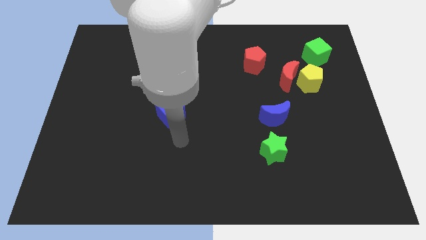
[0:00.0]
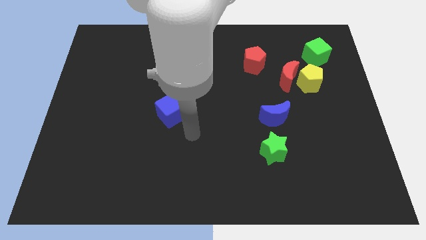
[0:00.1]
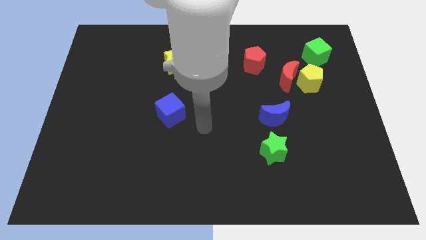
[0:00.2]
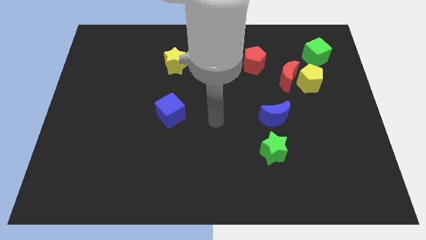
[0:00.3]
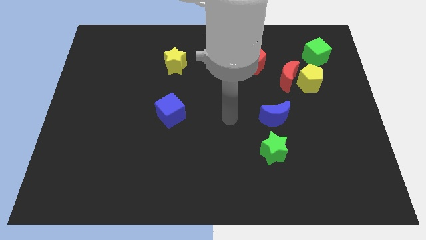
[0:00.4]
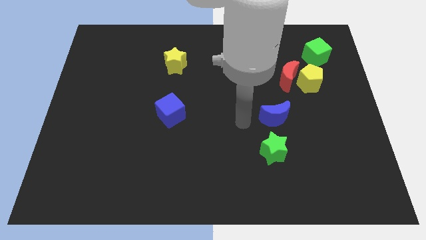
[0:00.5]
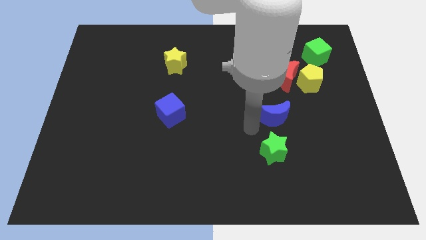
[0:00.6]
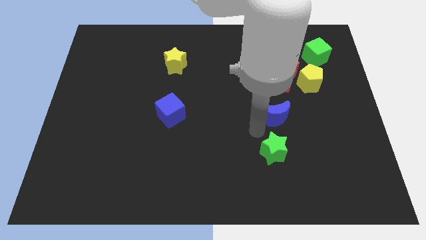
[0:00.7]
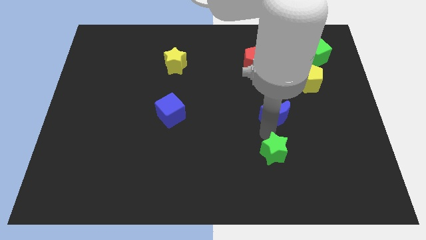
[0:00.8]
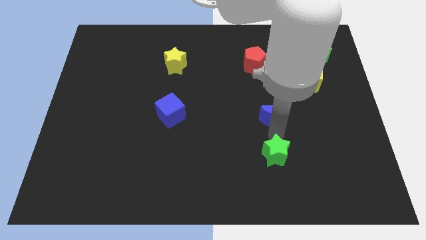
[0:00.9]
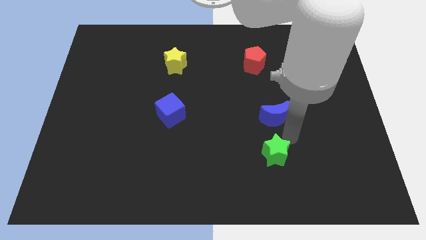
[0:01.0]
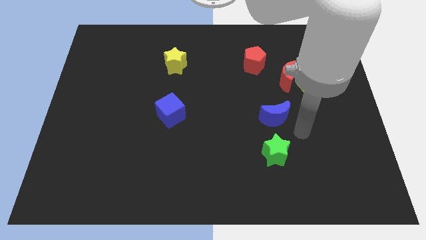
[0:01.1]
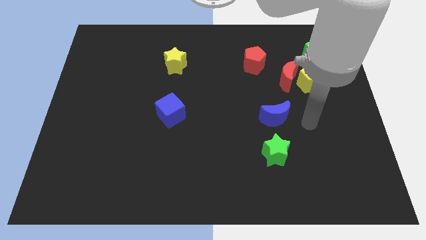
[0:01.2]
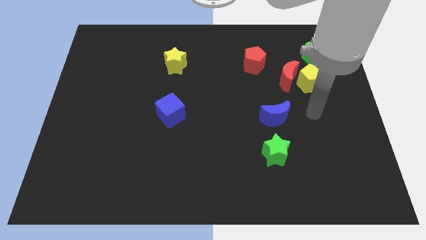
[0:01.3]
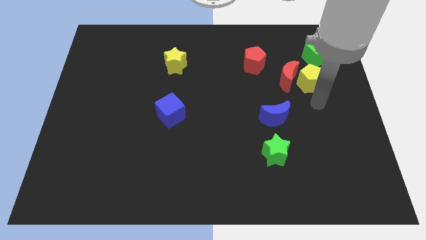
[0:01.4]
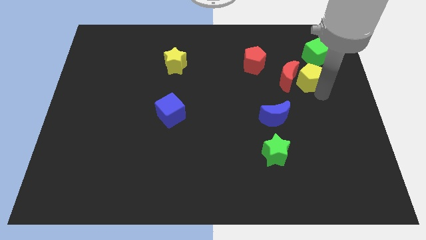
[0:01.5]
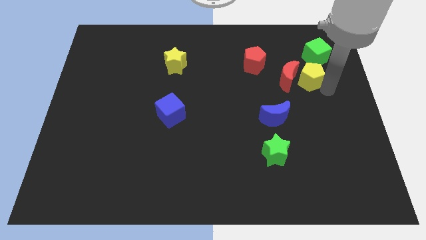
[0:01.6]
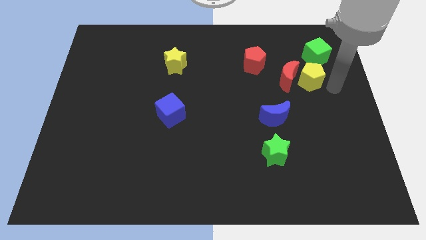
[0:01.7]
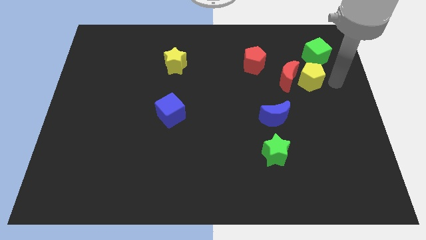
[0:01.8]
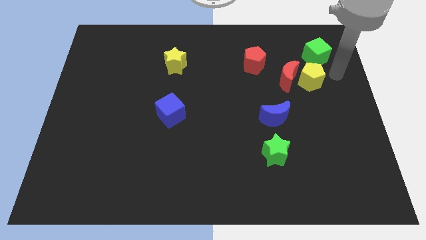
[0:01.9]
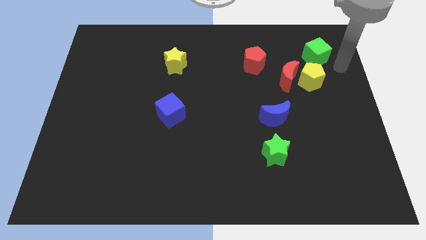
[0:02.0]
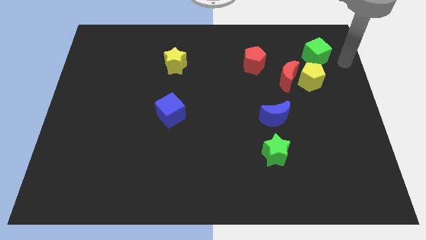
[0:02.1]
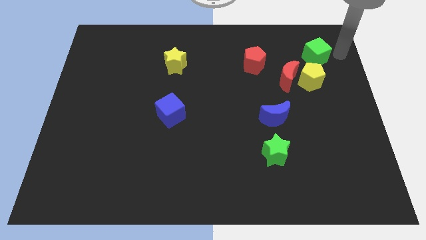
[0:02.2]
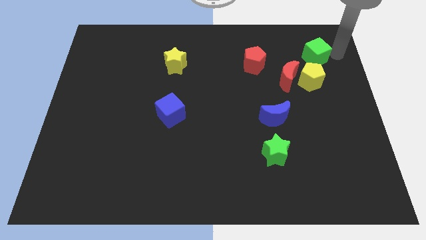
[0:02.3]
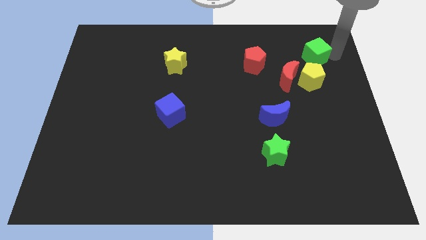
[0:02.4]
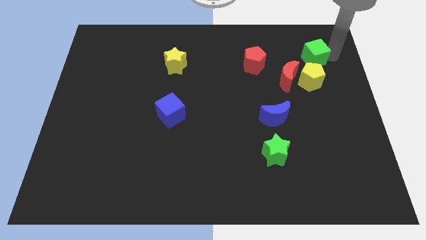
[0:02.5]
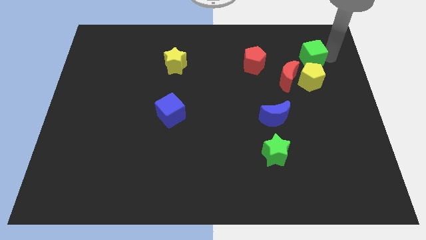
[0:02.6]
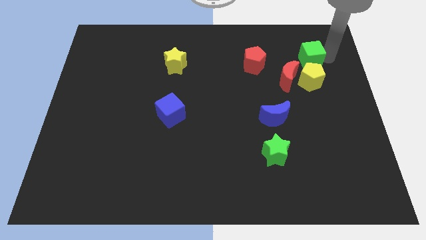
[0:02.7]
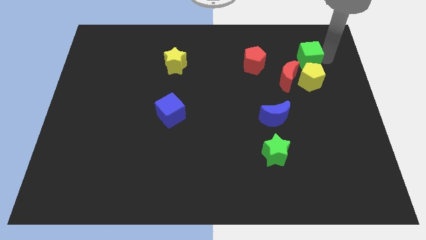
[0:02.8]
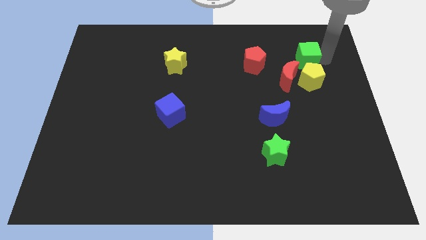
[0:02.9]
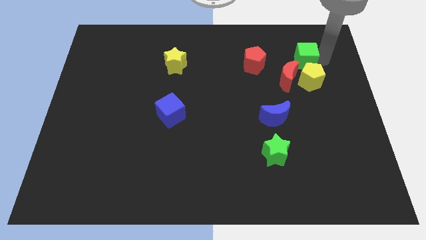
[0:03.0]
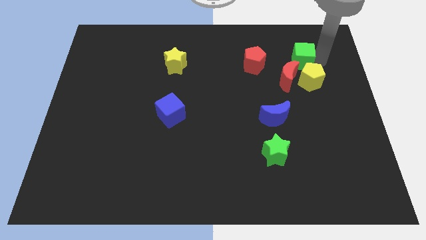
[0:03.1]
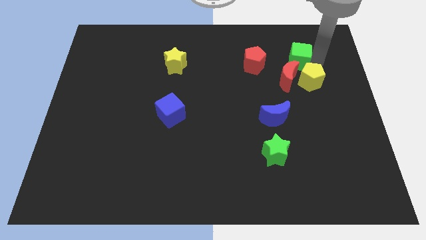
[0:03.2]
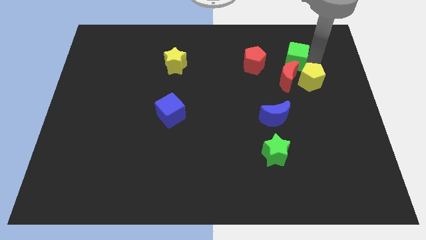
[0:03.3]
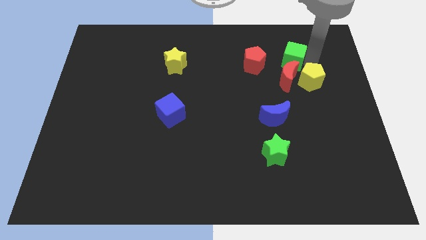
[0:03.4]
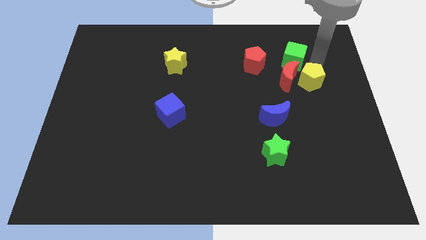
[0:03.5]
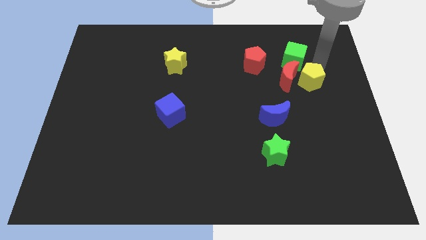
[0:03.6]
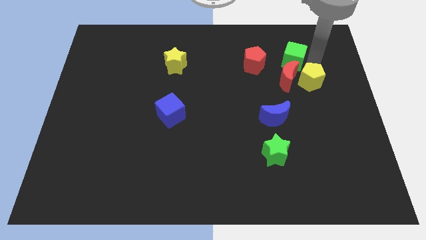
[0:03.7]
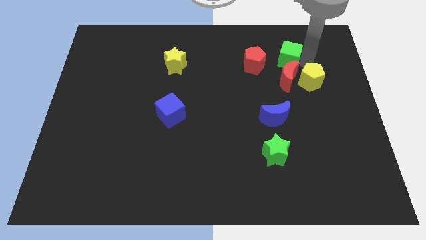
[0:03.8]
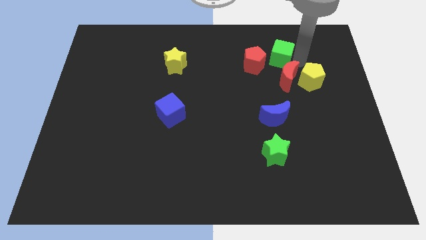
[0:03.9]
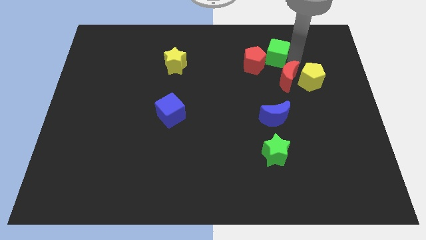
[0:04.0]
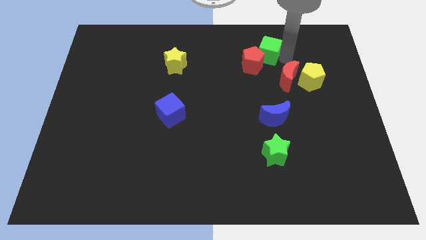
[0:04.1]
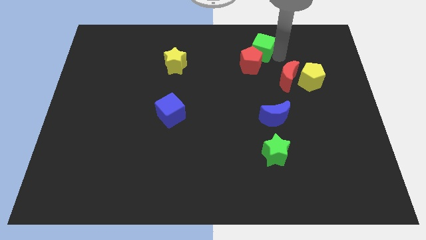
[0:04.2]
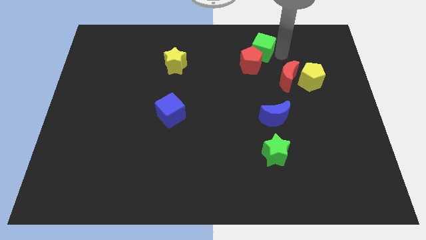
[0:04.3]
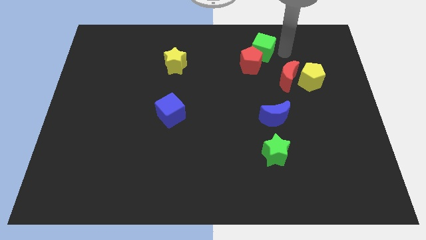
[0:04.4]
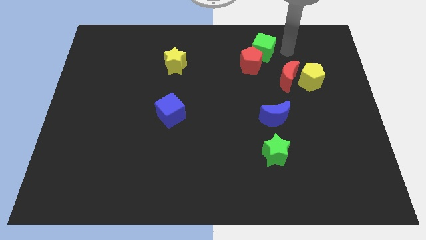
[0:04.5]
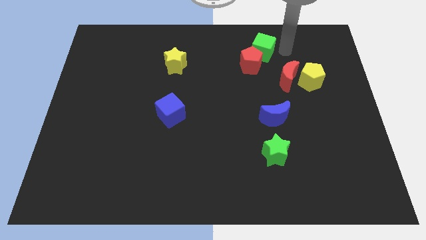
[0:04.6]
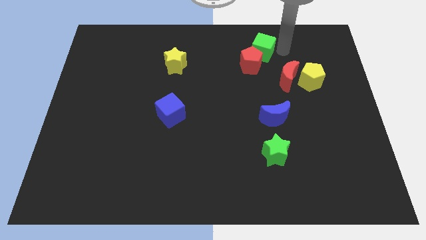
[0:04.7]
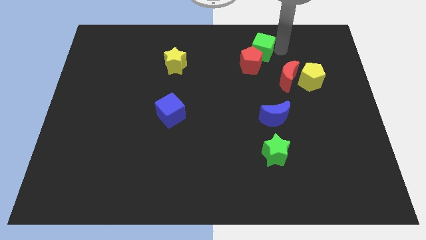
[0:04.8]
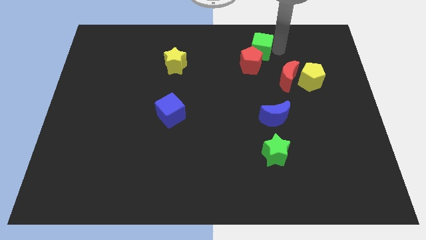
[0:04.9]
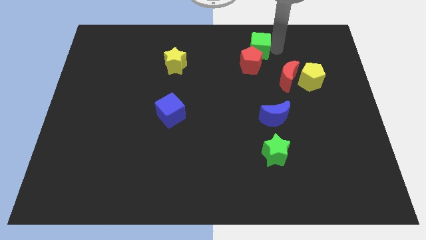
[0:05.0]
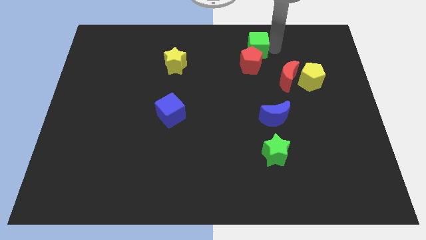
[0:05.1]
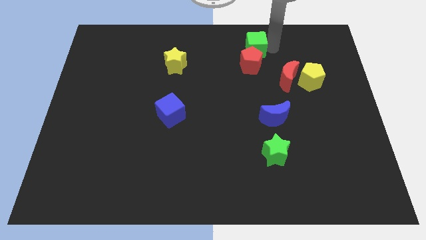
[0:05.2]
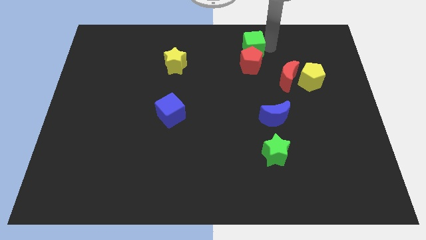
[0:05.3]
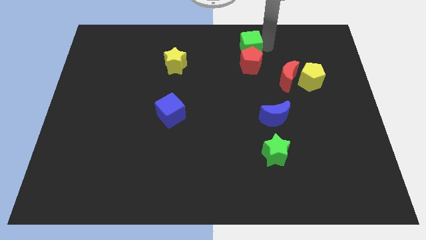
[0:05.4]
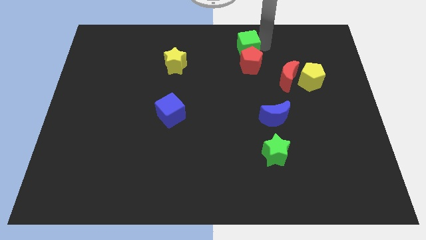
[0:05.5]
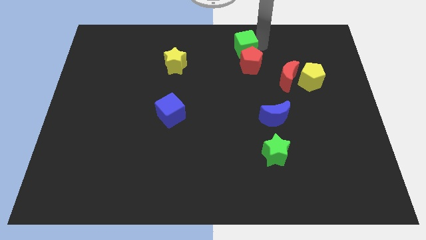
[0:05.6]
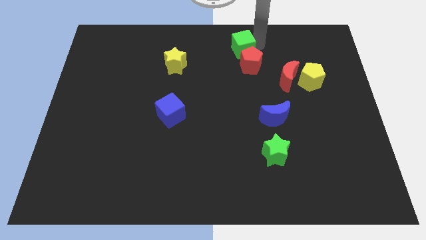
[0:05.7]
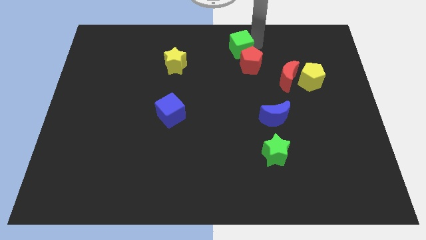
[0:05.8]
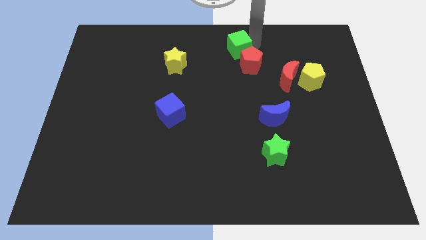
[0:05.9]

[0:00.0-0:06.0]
move the green cube left

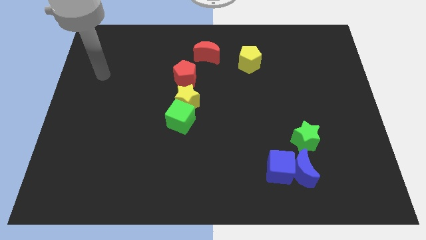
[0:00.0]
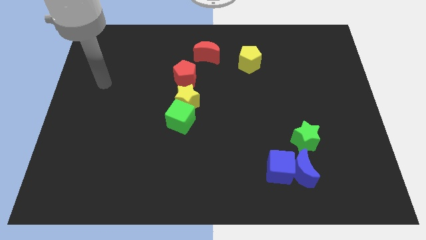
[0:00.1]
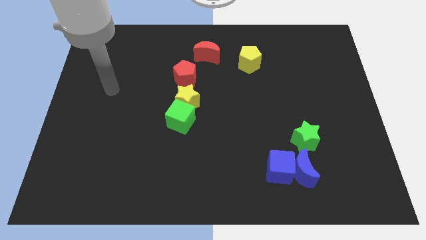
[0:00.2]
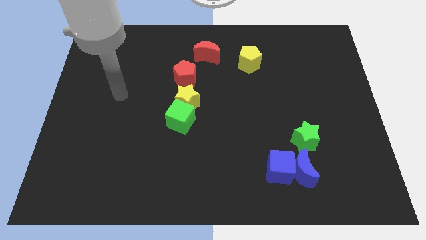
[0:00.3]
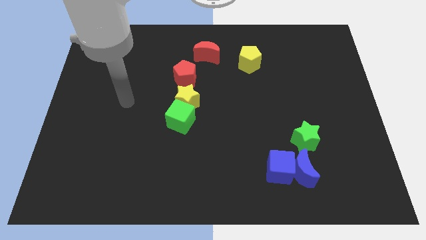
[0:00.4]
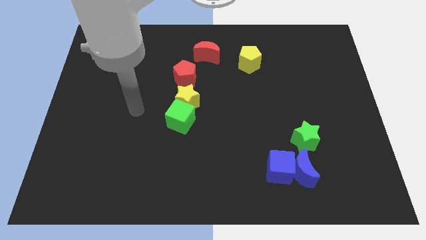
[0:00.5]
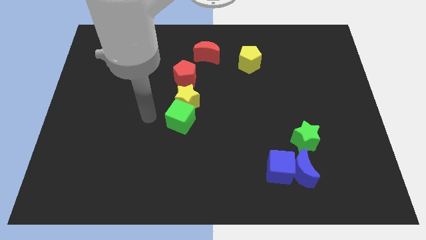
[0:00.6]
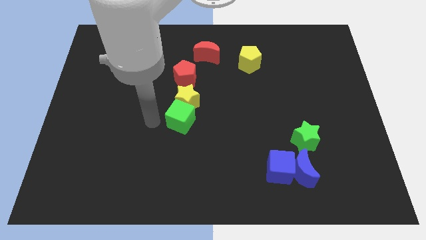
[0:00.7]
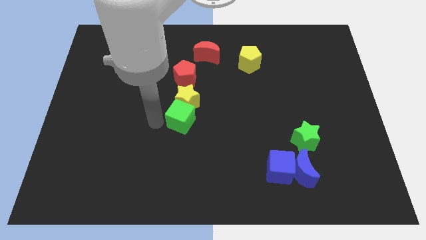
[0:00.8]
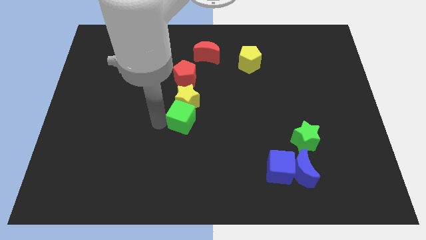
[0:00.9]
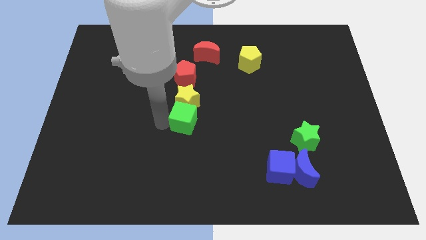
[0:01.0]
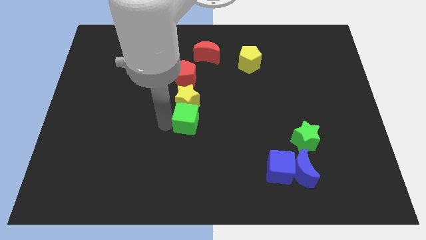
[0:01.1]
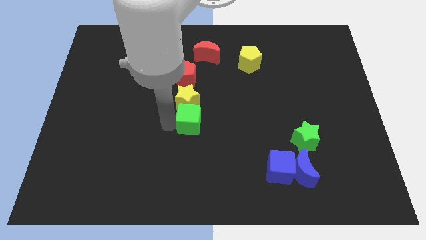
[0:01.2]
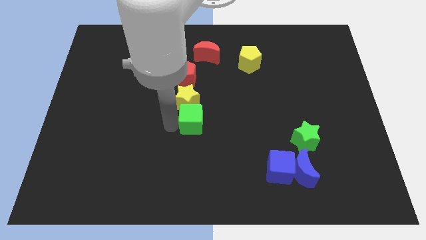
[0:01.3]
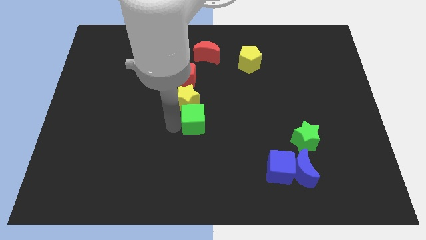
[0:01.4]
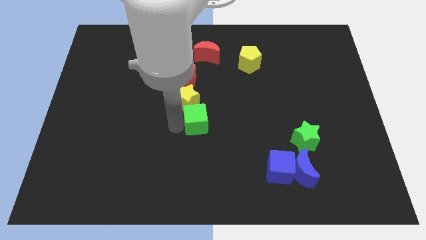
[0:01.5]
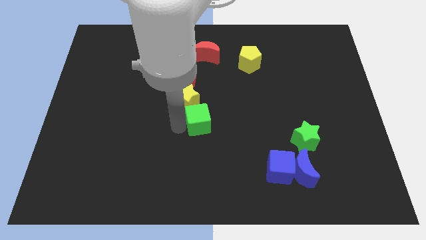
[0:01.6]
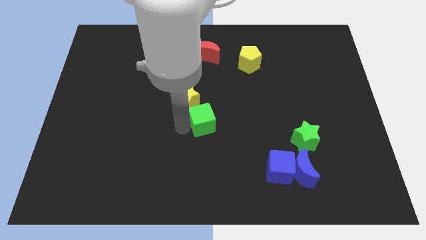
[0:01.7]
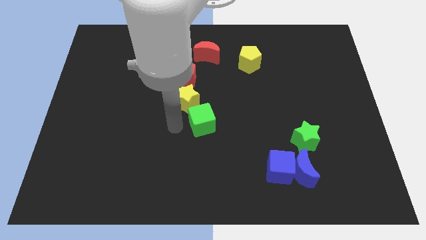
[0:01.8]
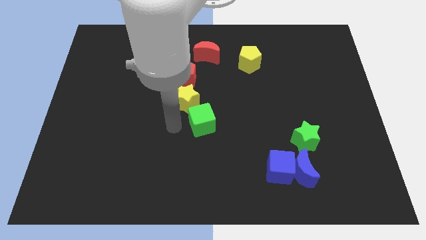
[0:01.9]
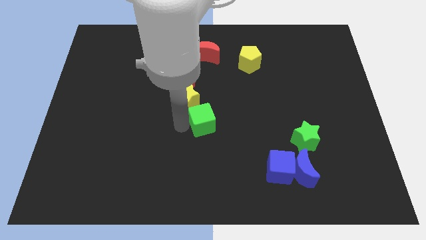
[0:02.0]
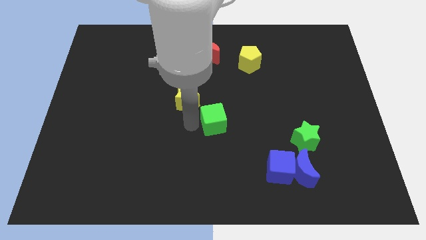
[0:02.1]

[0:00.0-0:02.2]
push the green cube to the right a little bit
